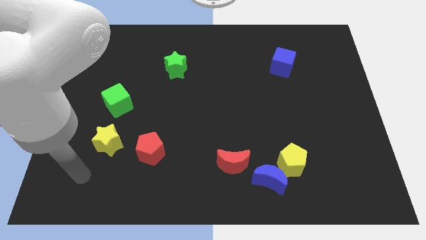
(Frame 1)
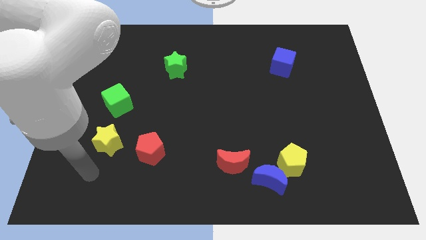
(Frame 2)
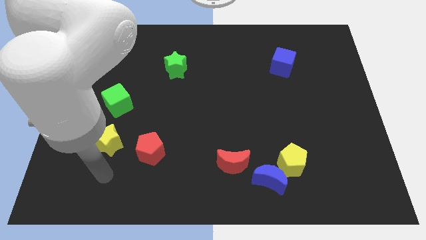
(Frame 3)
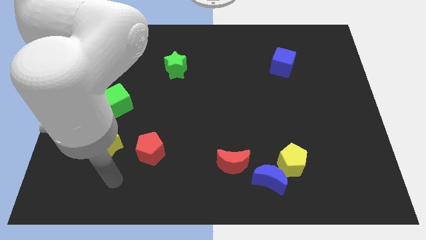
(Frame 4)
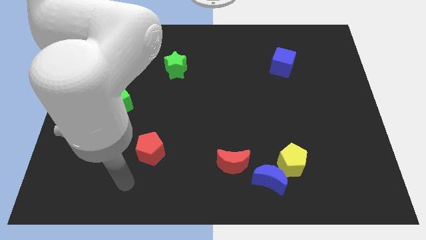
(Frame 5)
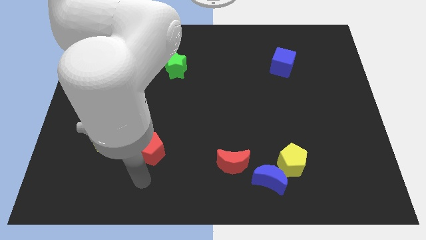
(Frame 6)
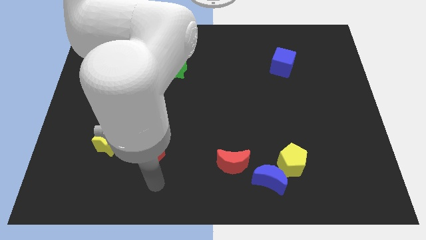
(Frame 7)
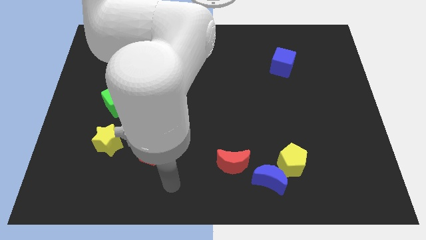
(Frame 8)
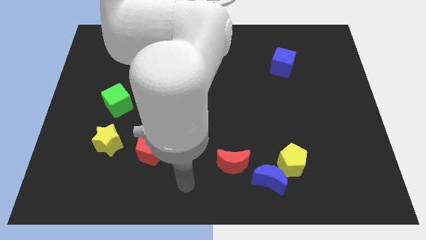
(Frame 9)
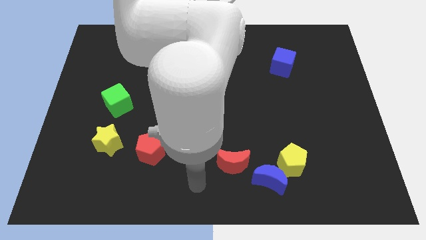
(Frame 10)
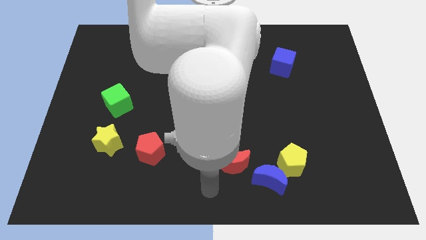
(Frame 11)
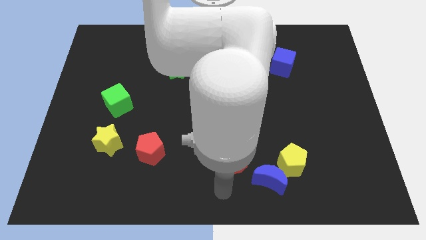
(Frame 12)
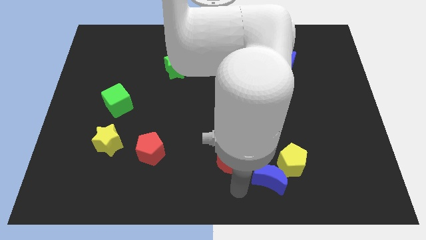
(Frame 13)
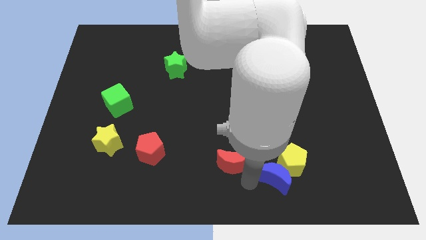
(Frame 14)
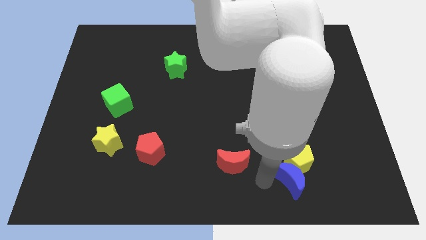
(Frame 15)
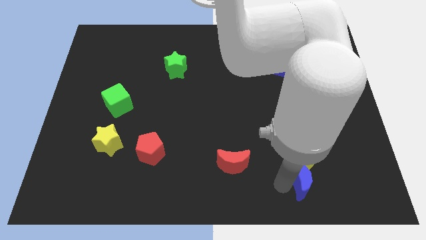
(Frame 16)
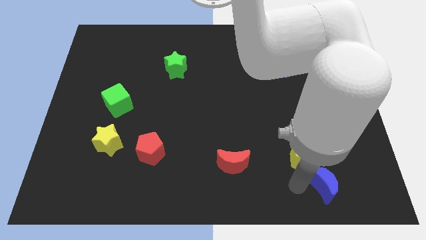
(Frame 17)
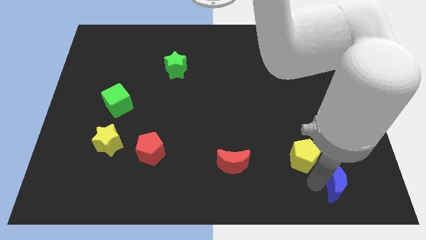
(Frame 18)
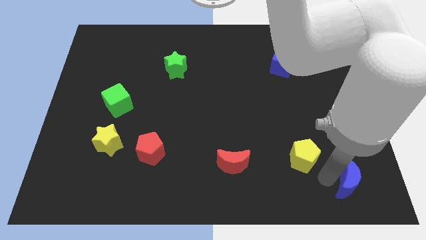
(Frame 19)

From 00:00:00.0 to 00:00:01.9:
move the yellow pentagon away from the blue moon

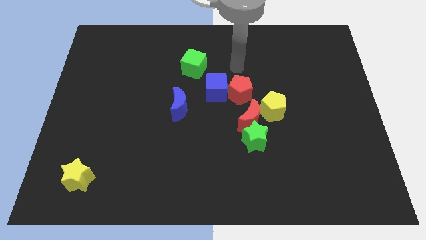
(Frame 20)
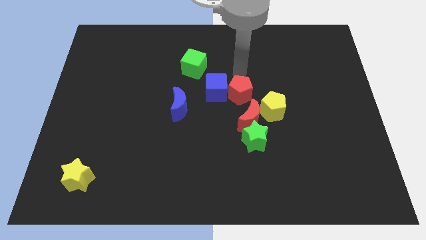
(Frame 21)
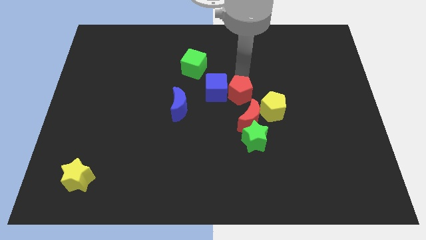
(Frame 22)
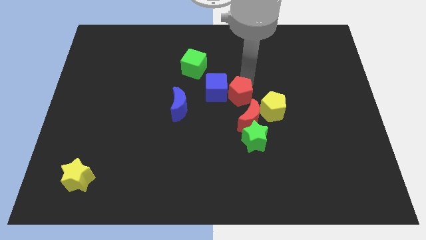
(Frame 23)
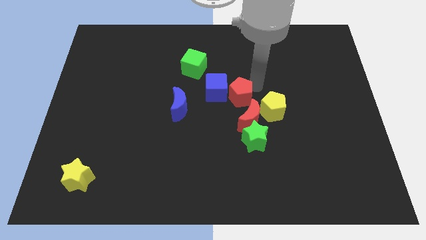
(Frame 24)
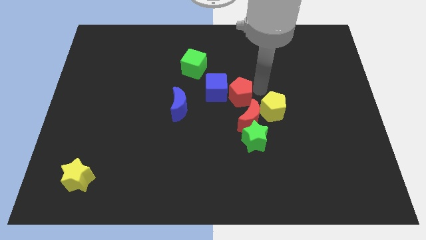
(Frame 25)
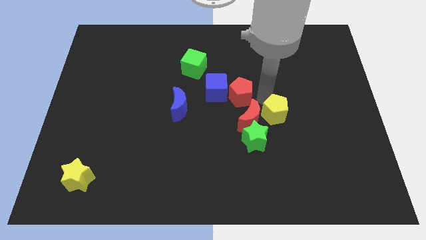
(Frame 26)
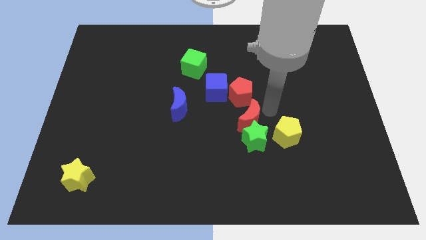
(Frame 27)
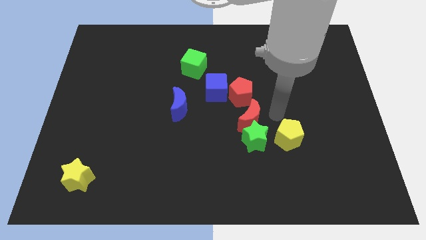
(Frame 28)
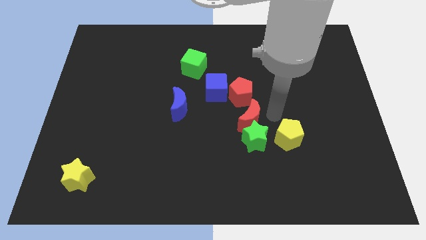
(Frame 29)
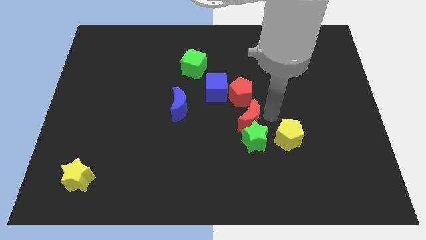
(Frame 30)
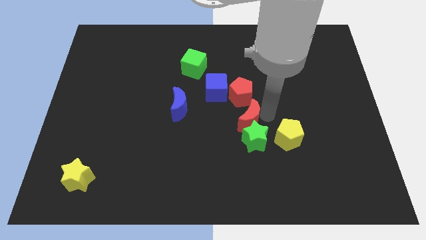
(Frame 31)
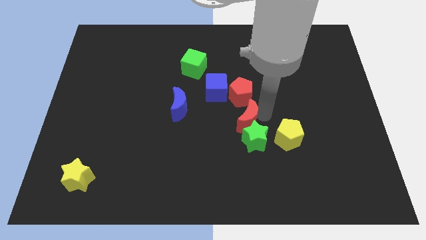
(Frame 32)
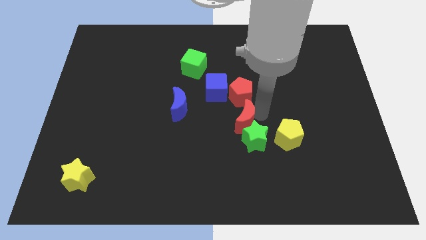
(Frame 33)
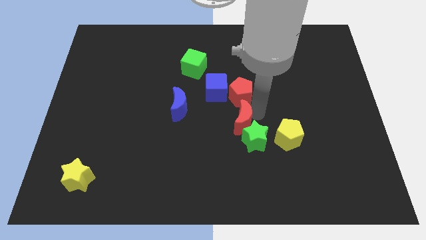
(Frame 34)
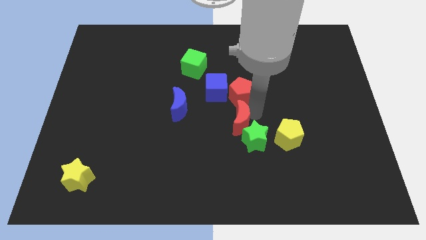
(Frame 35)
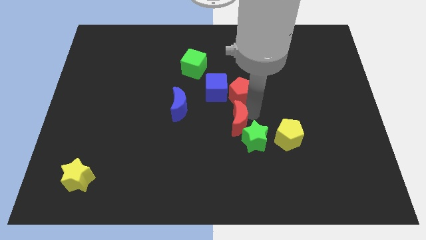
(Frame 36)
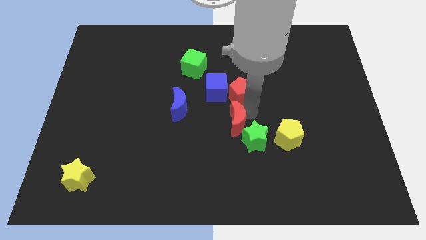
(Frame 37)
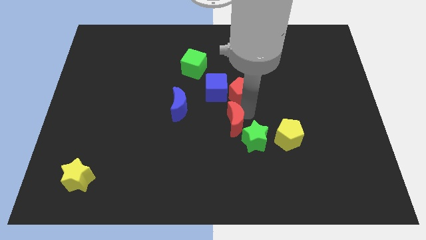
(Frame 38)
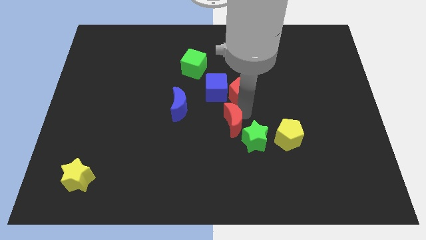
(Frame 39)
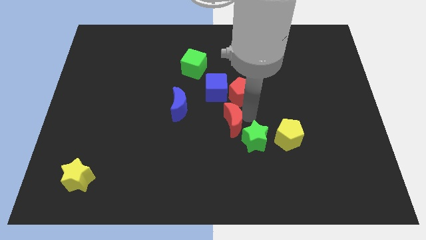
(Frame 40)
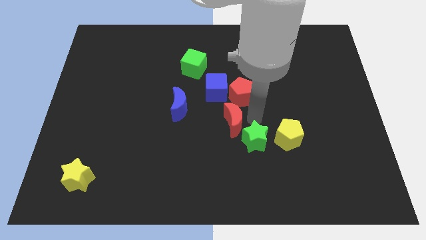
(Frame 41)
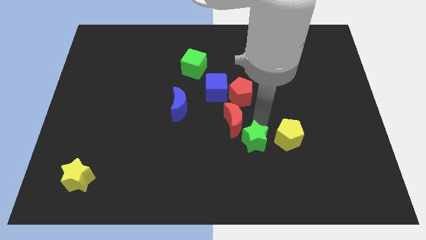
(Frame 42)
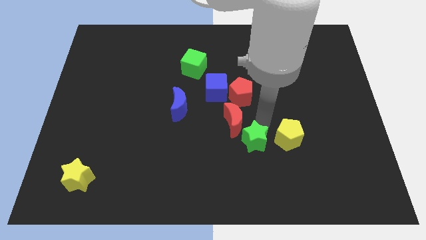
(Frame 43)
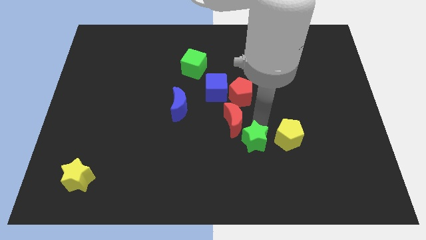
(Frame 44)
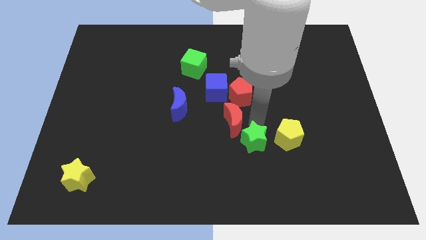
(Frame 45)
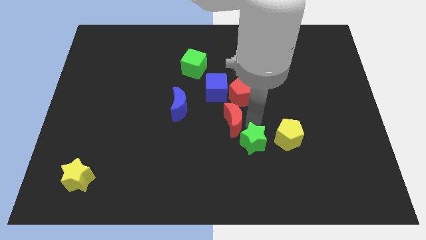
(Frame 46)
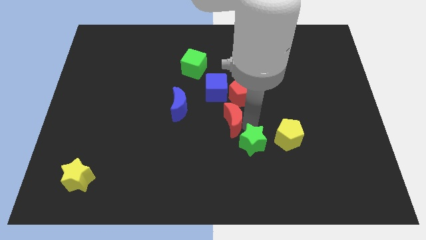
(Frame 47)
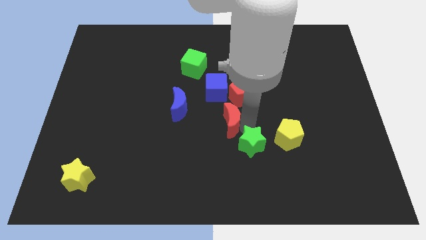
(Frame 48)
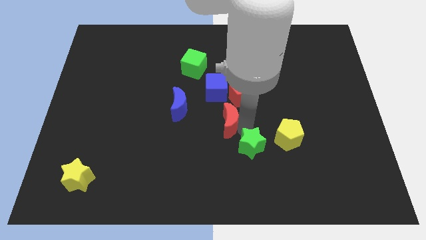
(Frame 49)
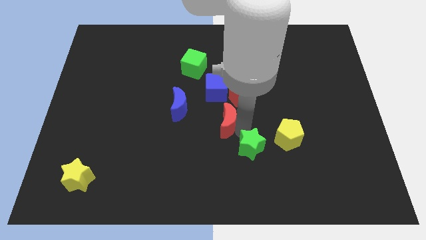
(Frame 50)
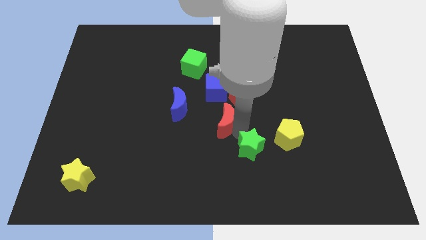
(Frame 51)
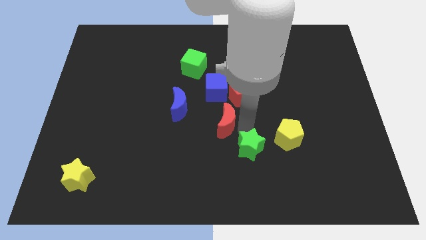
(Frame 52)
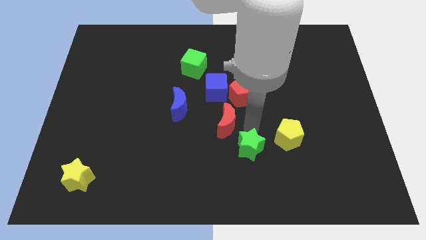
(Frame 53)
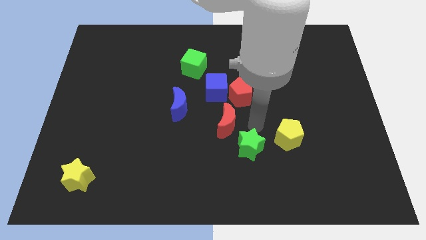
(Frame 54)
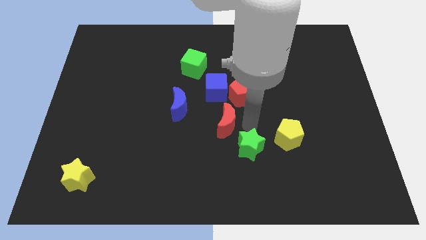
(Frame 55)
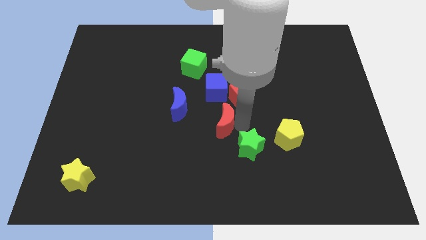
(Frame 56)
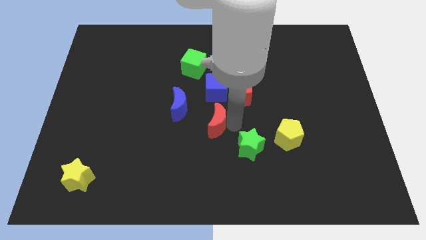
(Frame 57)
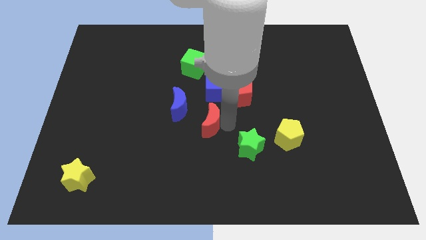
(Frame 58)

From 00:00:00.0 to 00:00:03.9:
separate the red moon from the green star, yellow pentagon, and red pentagon

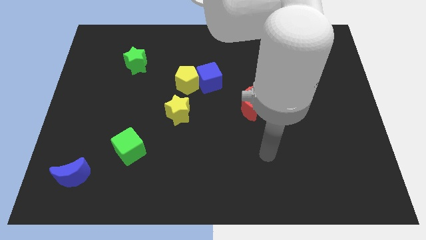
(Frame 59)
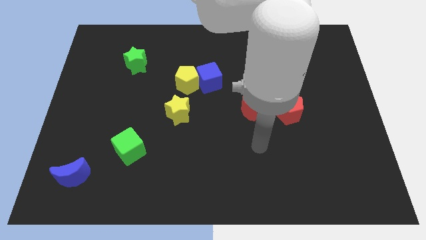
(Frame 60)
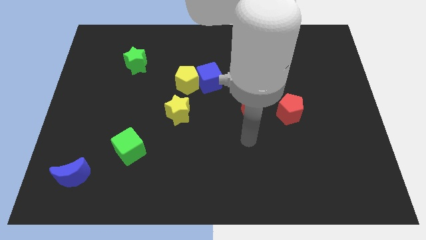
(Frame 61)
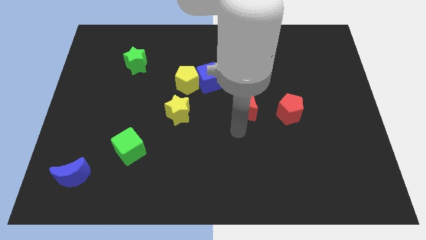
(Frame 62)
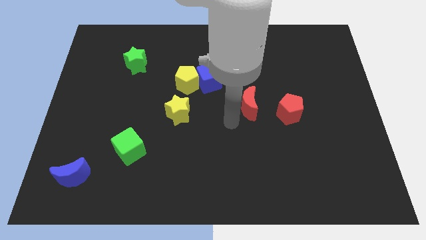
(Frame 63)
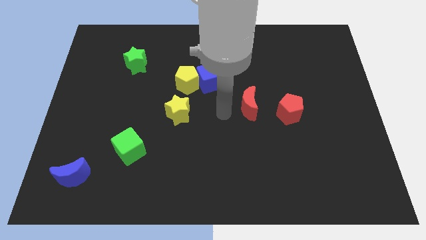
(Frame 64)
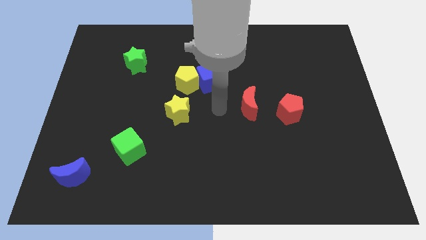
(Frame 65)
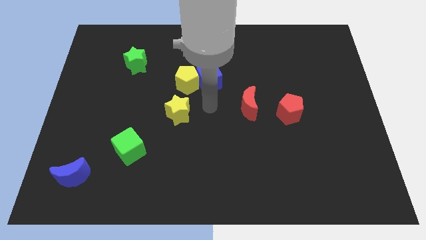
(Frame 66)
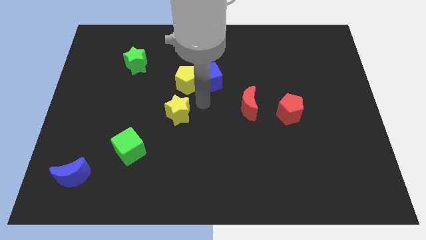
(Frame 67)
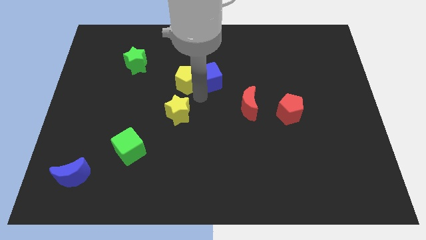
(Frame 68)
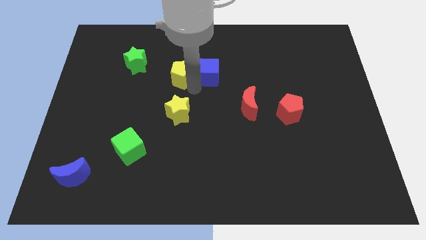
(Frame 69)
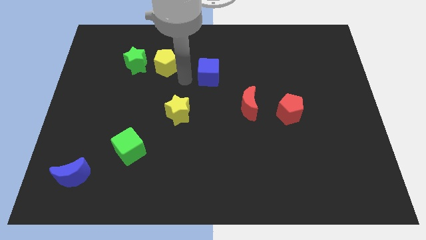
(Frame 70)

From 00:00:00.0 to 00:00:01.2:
move the blue cube away from the yellow pentagon

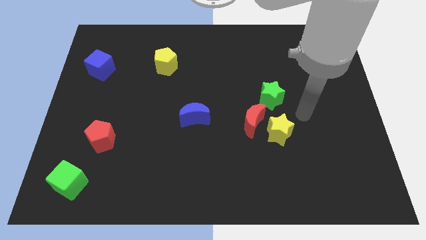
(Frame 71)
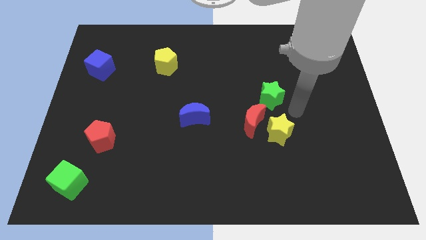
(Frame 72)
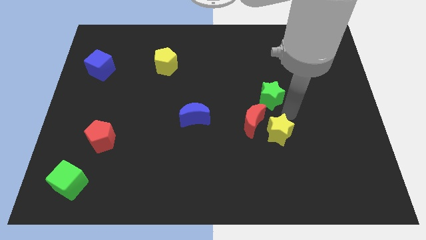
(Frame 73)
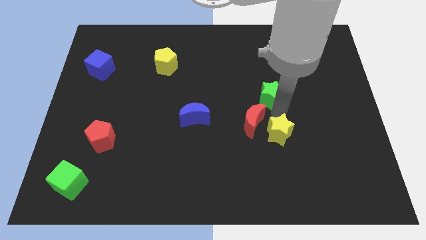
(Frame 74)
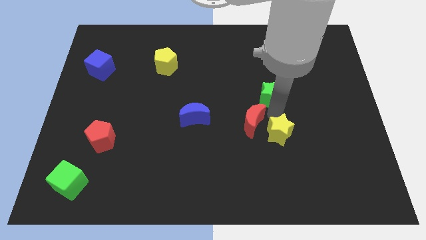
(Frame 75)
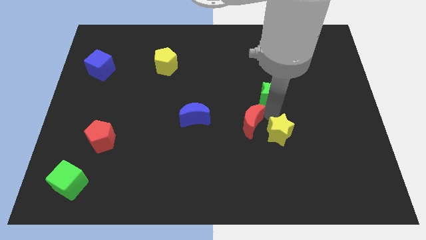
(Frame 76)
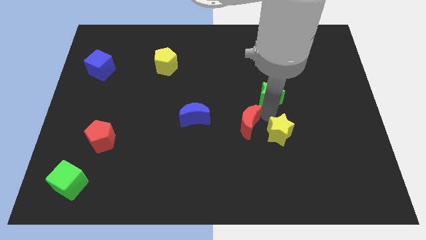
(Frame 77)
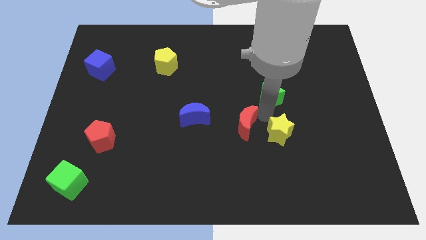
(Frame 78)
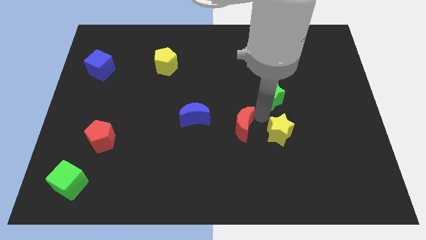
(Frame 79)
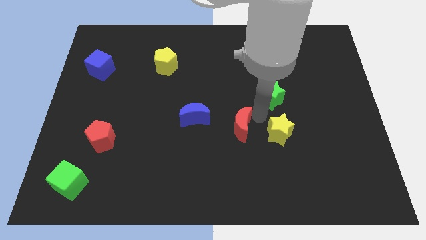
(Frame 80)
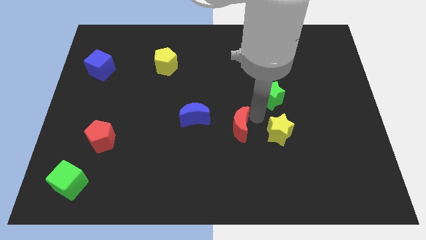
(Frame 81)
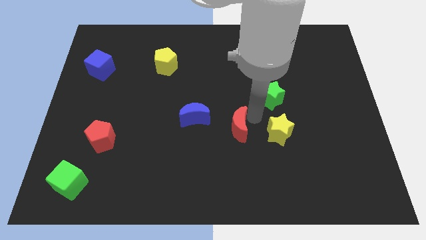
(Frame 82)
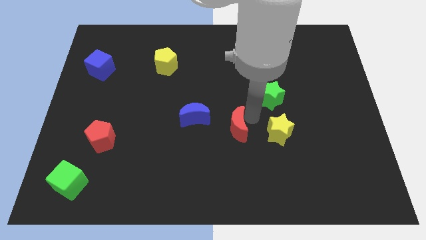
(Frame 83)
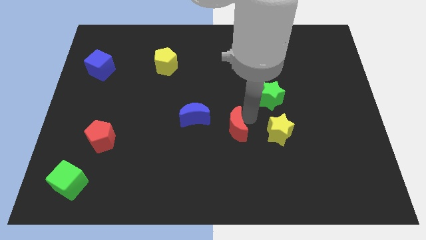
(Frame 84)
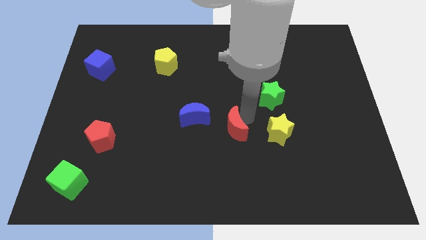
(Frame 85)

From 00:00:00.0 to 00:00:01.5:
pull the red moon apart from the yellow star and green star

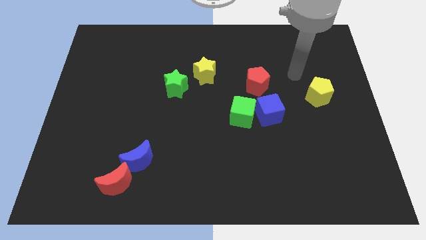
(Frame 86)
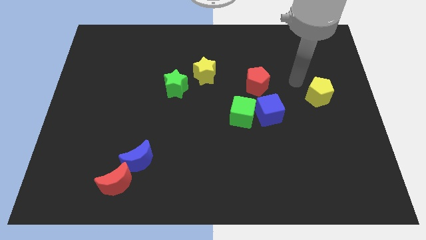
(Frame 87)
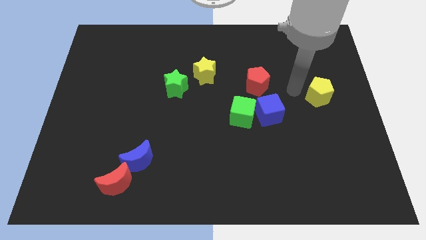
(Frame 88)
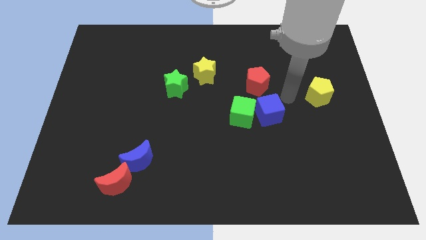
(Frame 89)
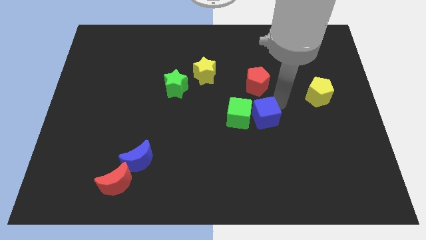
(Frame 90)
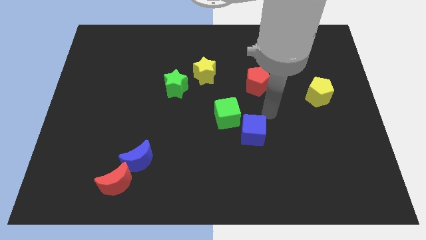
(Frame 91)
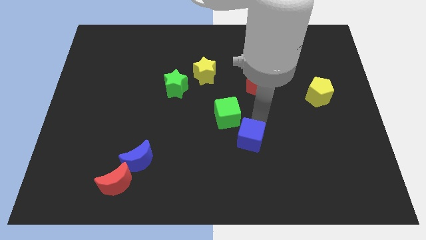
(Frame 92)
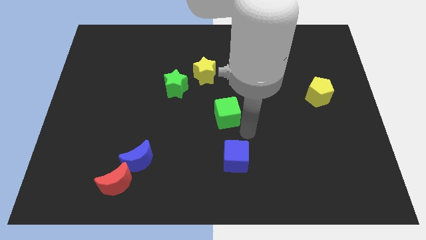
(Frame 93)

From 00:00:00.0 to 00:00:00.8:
move the green cube away from the blue cube
